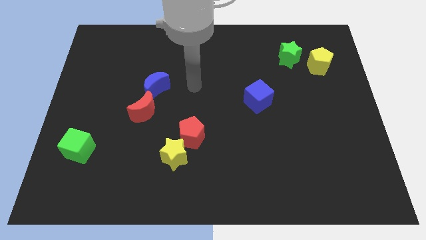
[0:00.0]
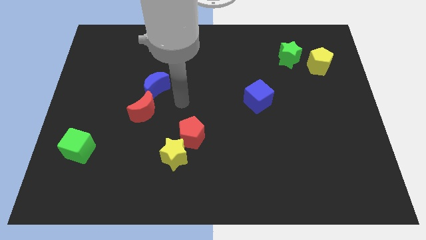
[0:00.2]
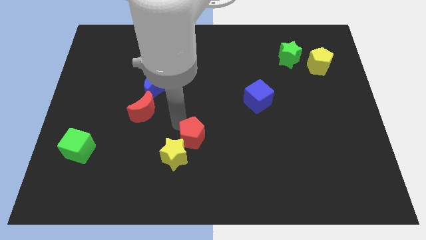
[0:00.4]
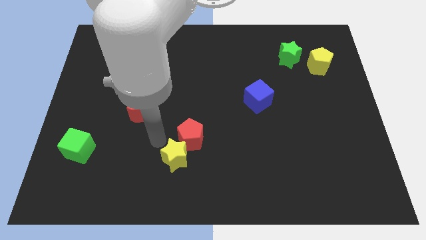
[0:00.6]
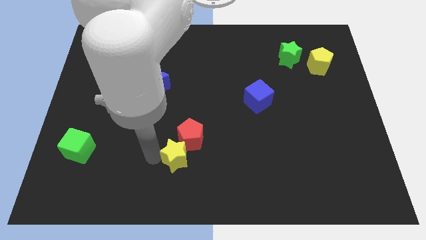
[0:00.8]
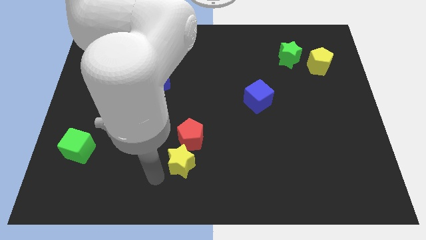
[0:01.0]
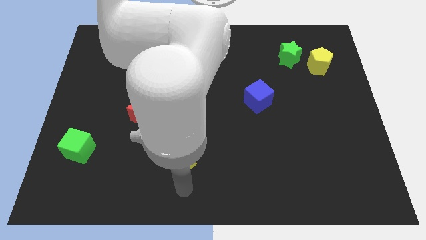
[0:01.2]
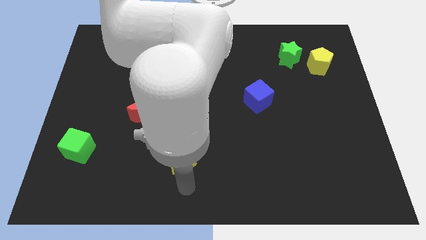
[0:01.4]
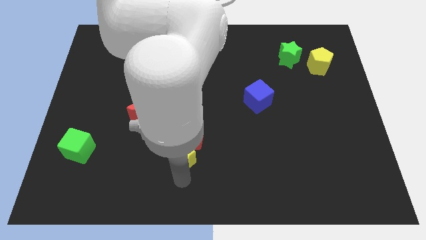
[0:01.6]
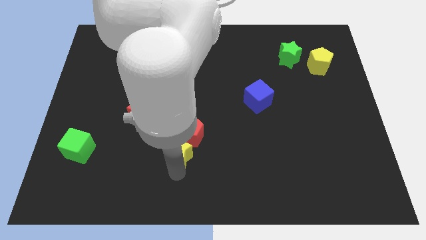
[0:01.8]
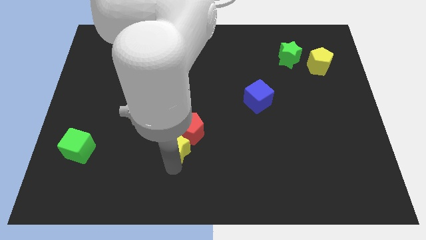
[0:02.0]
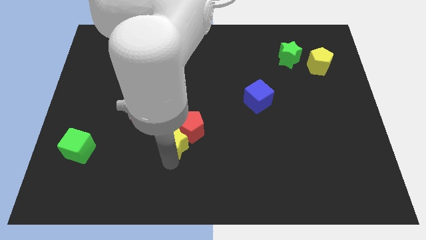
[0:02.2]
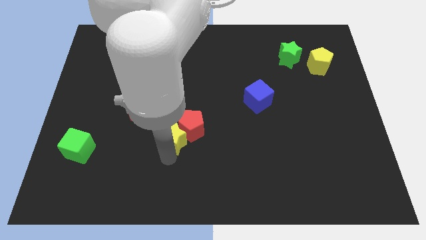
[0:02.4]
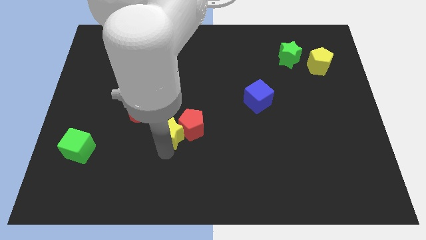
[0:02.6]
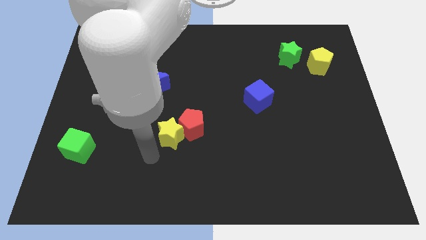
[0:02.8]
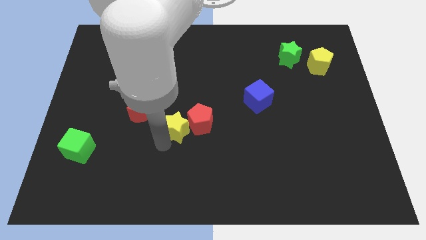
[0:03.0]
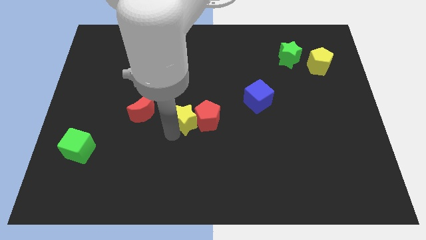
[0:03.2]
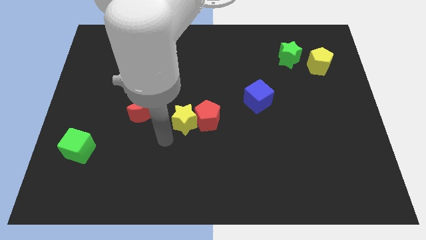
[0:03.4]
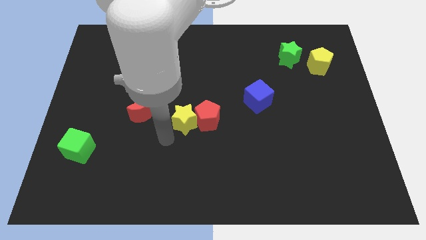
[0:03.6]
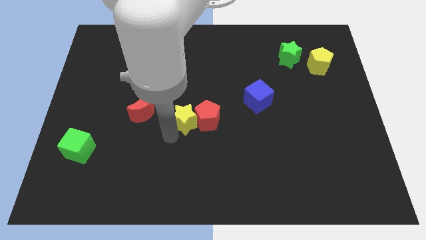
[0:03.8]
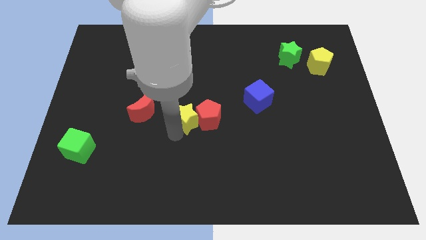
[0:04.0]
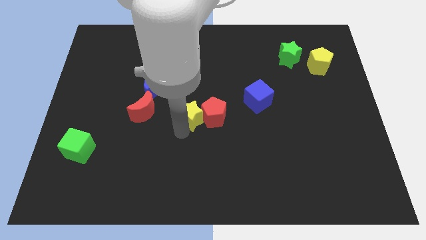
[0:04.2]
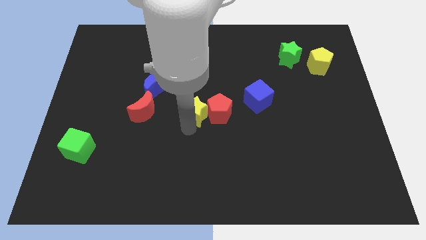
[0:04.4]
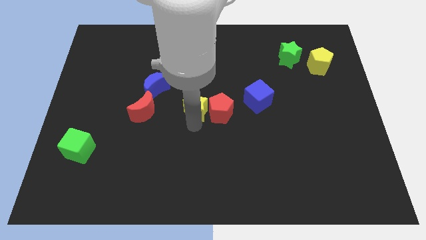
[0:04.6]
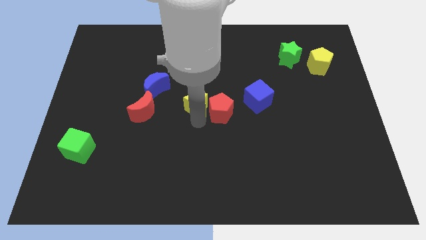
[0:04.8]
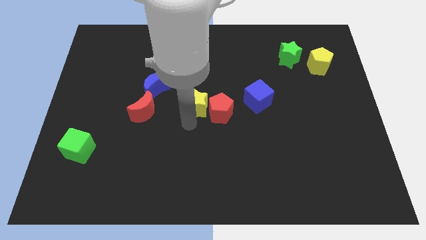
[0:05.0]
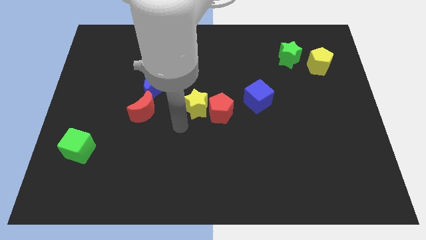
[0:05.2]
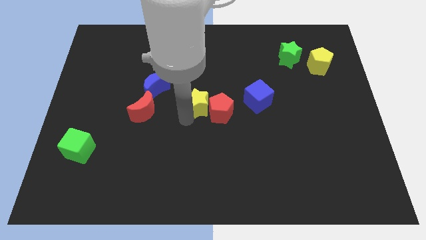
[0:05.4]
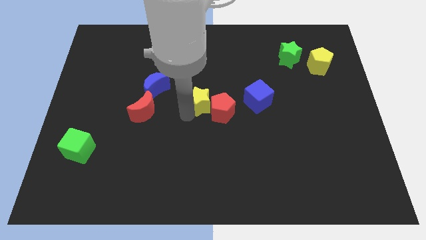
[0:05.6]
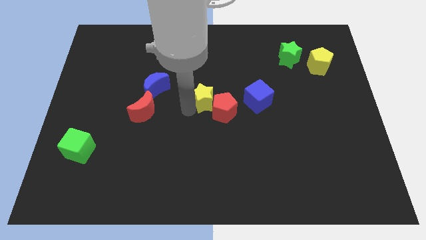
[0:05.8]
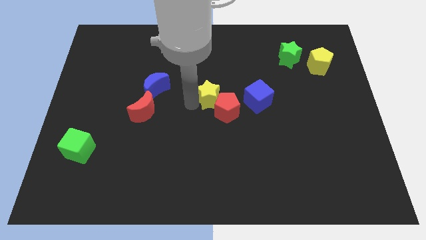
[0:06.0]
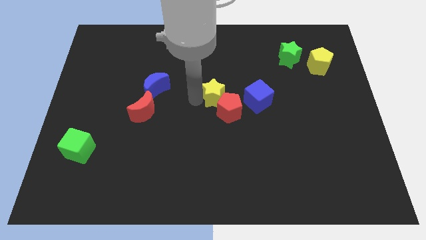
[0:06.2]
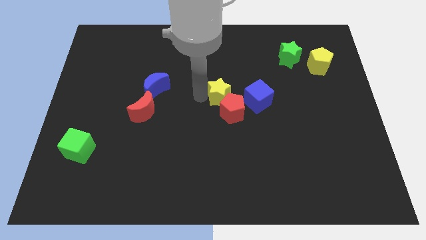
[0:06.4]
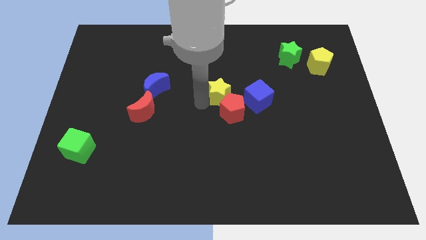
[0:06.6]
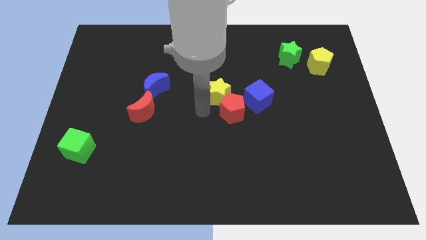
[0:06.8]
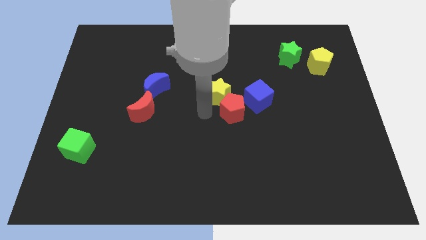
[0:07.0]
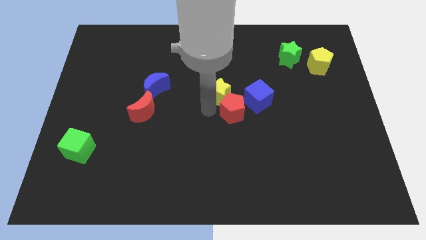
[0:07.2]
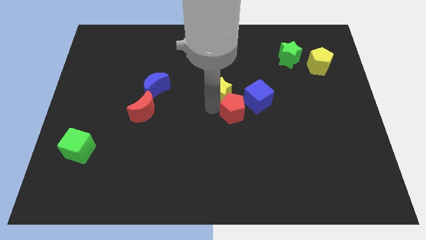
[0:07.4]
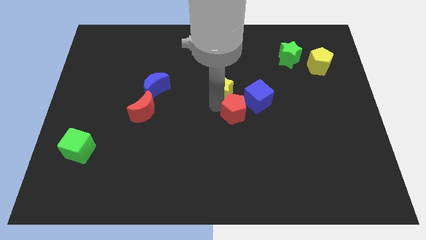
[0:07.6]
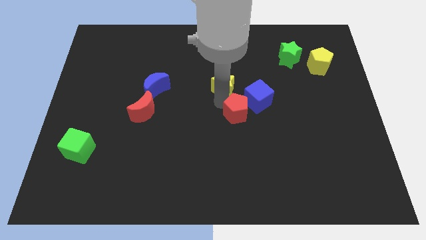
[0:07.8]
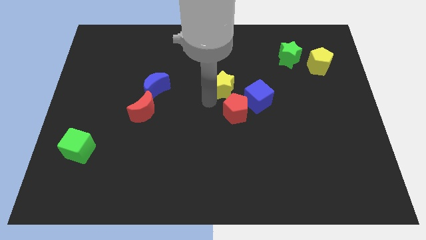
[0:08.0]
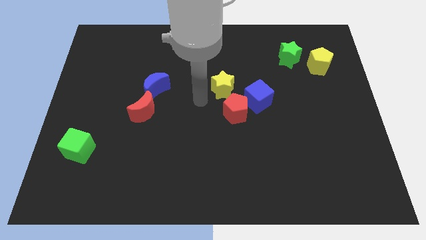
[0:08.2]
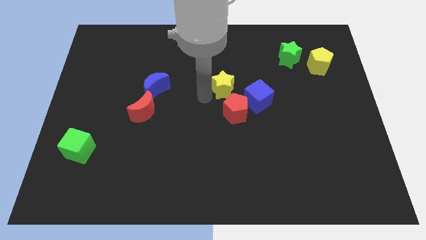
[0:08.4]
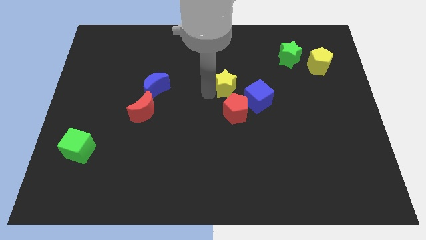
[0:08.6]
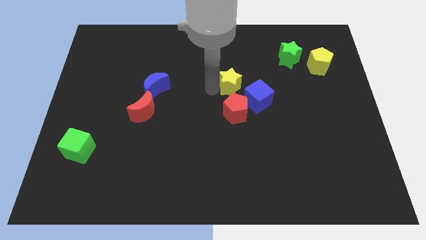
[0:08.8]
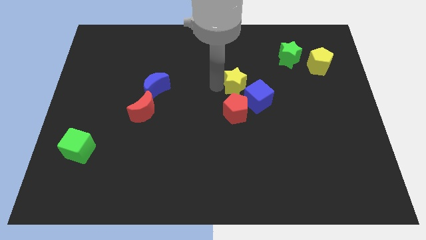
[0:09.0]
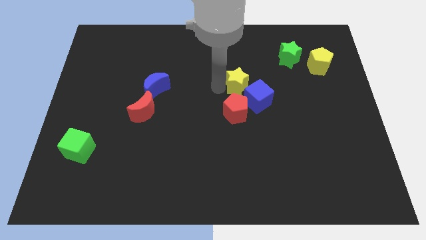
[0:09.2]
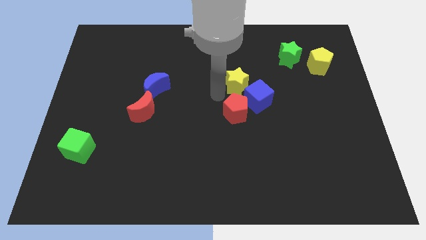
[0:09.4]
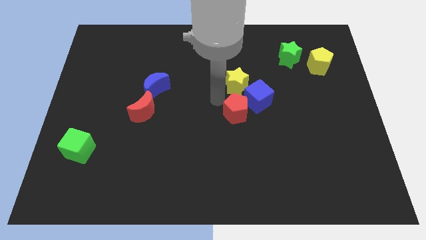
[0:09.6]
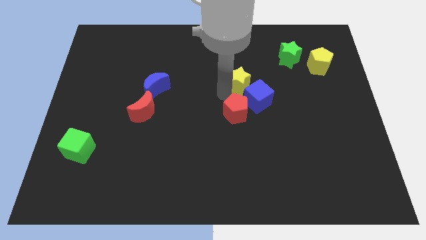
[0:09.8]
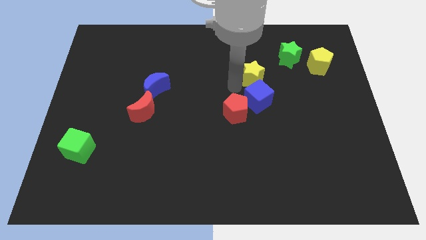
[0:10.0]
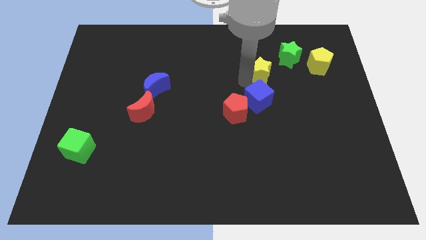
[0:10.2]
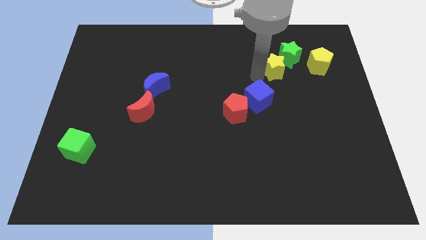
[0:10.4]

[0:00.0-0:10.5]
move the yellow star to the green star

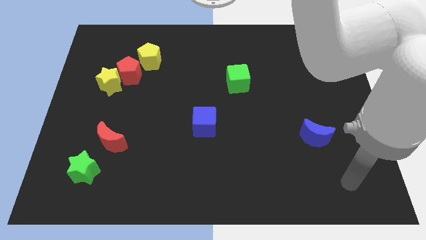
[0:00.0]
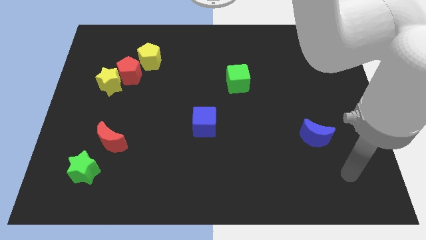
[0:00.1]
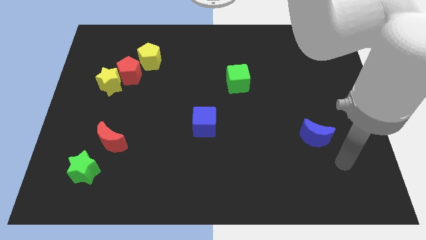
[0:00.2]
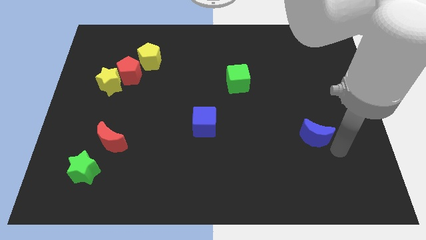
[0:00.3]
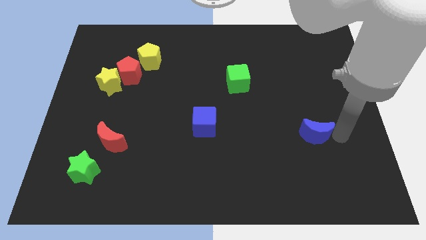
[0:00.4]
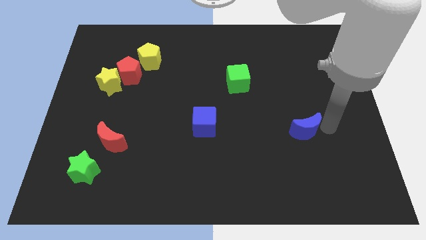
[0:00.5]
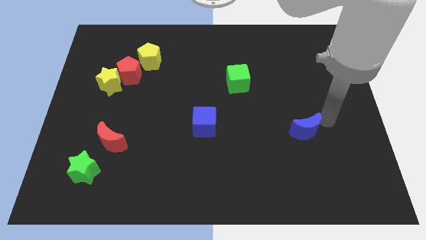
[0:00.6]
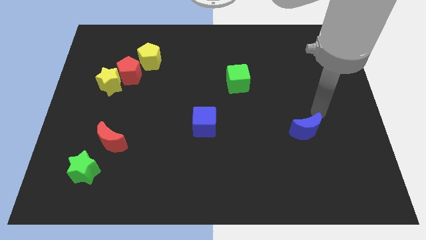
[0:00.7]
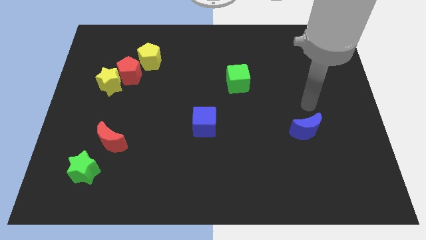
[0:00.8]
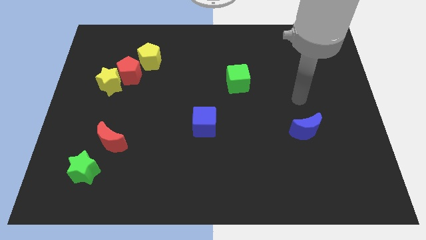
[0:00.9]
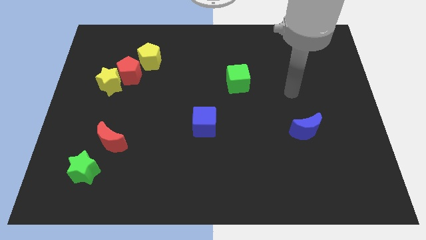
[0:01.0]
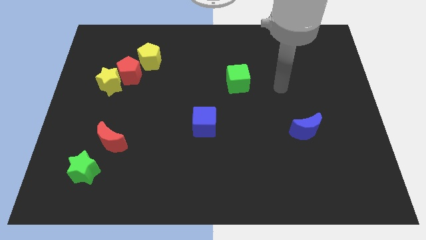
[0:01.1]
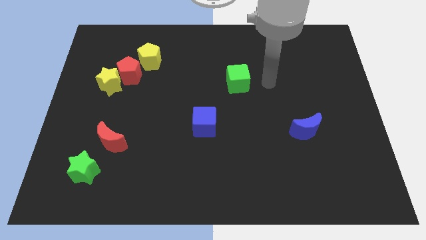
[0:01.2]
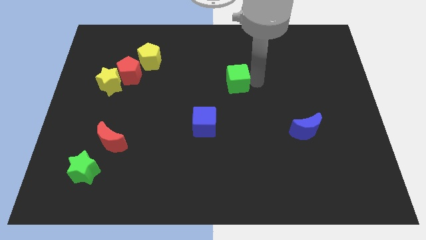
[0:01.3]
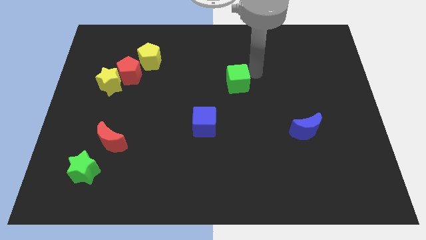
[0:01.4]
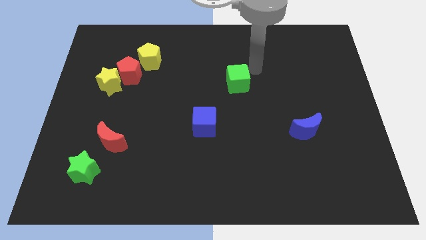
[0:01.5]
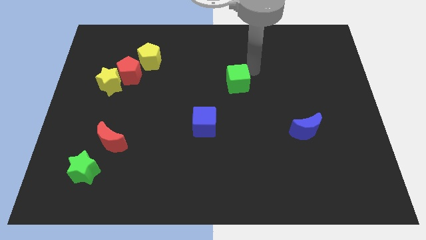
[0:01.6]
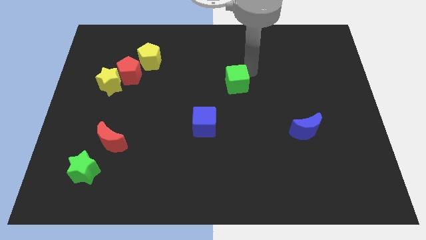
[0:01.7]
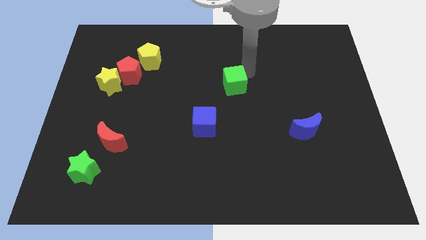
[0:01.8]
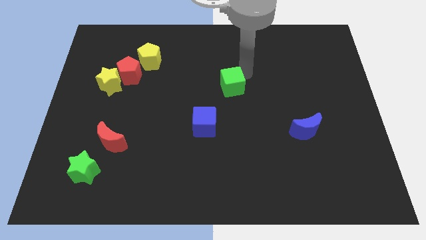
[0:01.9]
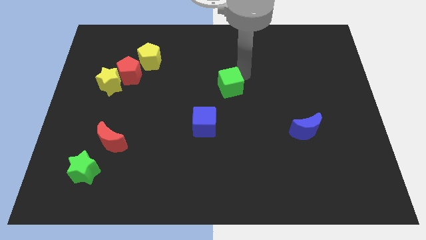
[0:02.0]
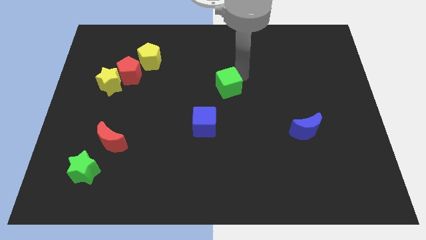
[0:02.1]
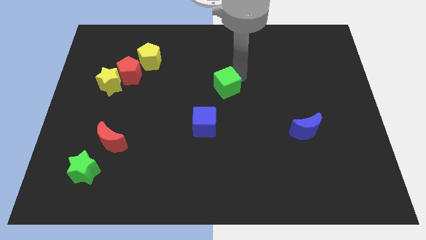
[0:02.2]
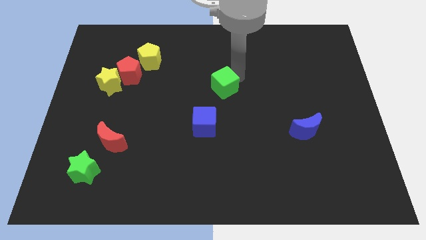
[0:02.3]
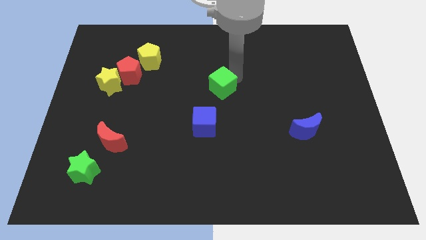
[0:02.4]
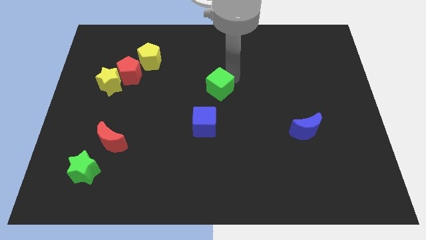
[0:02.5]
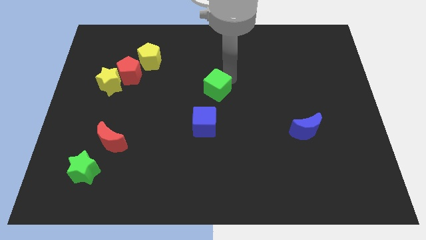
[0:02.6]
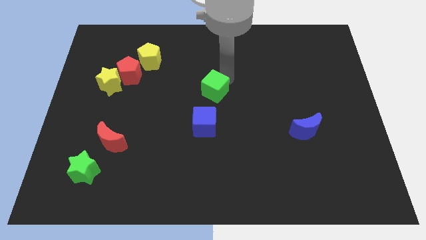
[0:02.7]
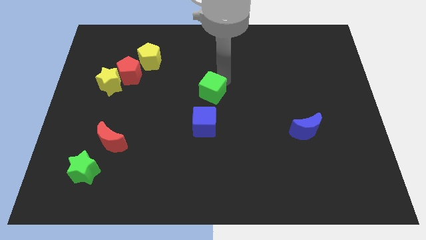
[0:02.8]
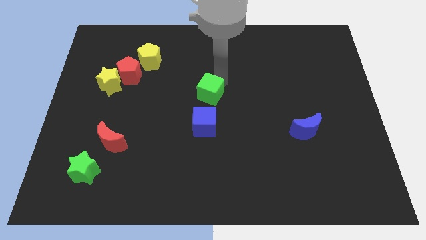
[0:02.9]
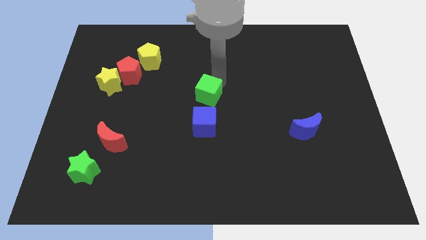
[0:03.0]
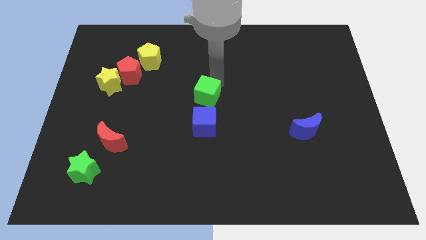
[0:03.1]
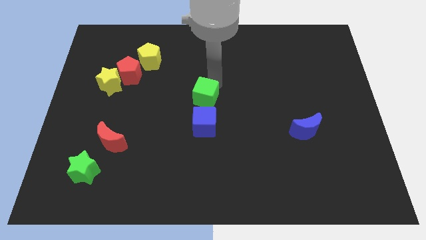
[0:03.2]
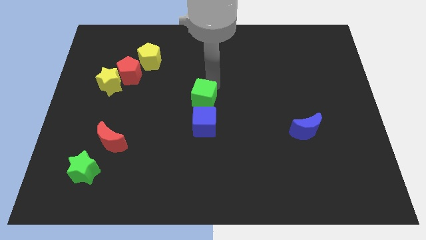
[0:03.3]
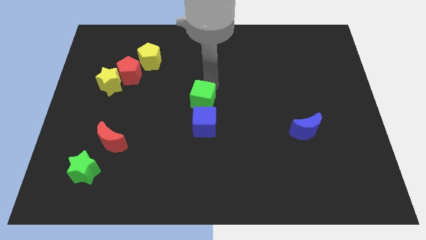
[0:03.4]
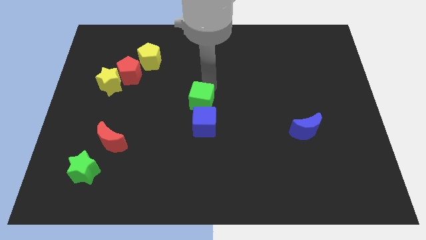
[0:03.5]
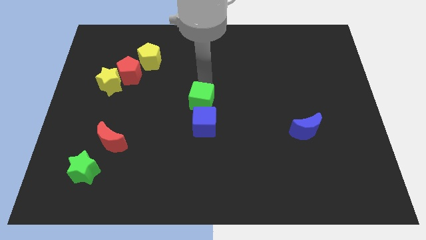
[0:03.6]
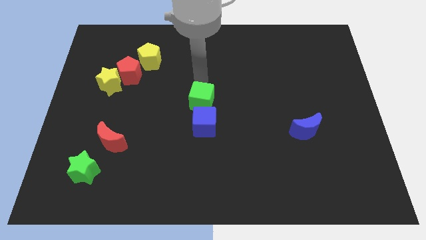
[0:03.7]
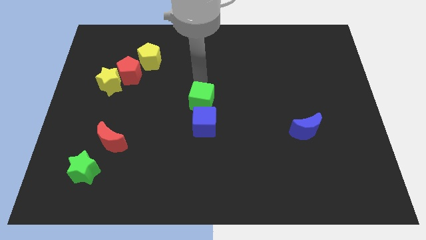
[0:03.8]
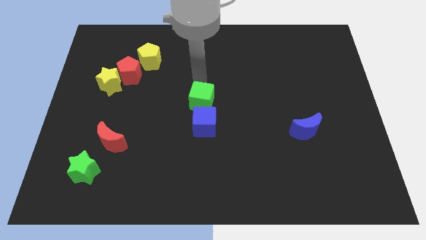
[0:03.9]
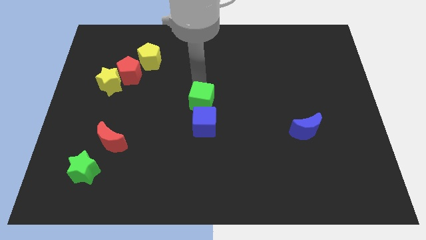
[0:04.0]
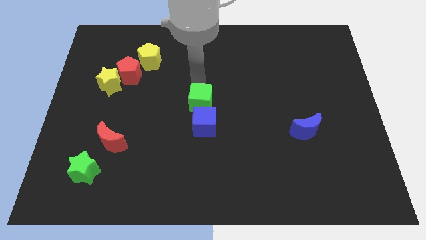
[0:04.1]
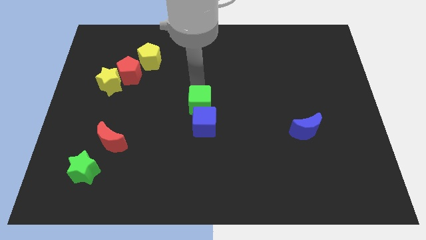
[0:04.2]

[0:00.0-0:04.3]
push the green cube next to the blue cube
